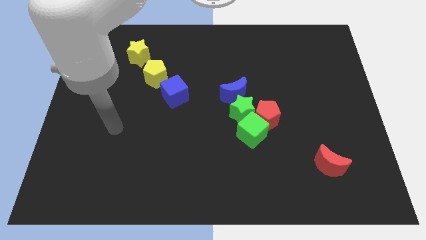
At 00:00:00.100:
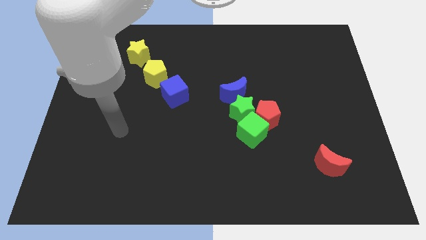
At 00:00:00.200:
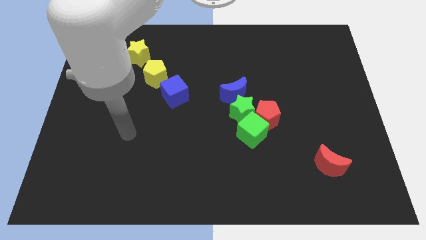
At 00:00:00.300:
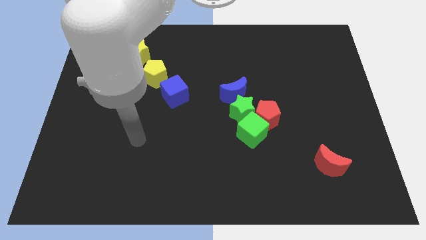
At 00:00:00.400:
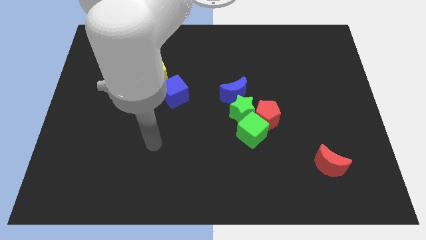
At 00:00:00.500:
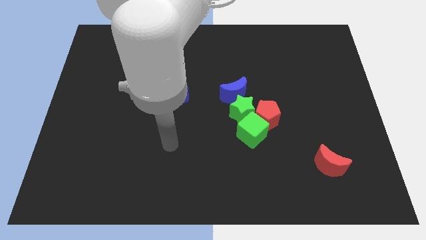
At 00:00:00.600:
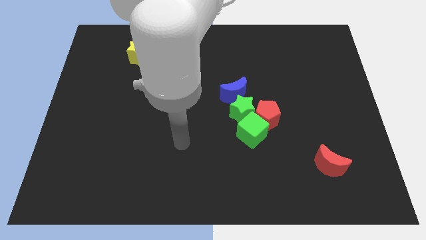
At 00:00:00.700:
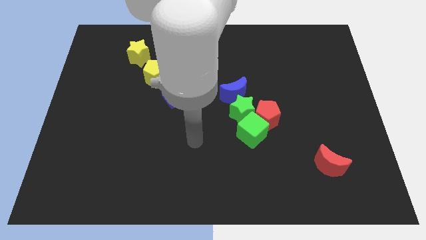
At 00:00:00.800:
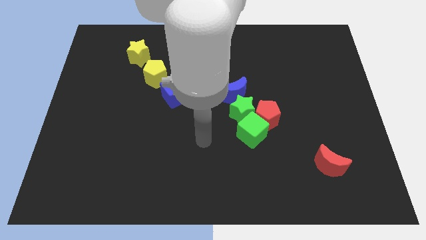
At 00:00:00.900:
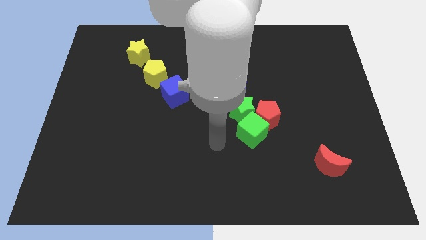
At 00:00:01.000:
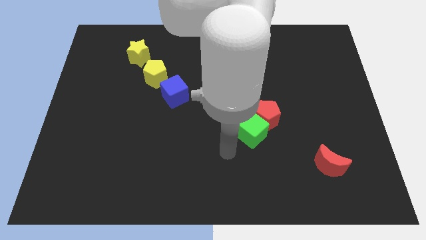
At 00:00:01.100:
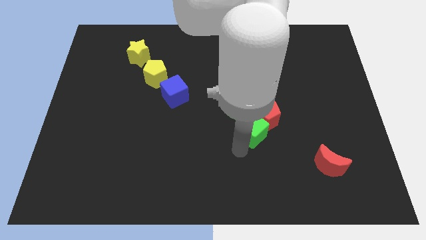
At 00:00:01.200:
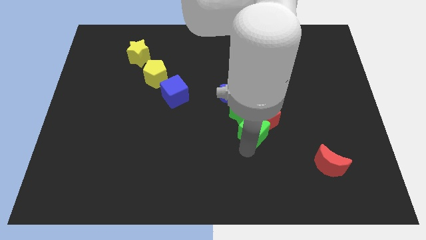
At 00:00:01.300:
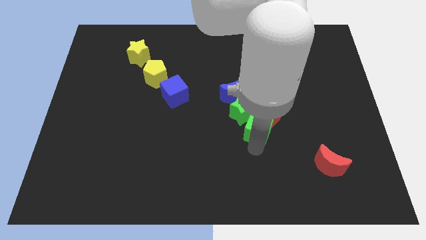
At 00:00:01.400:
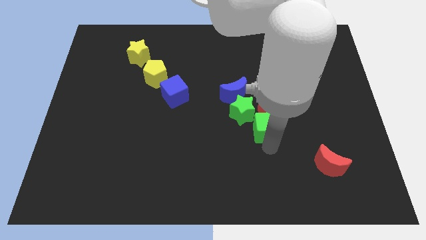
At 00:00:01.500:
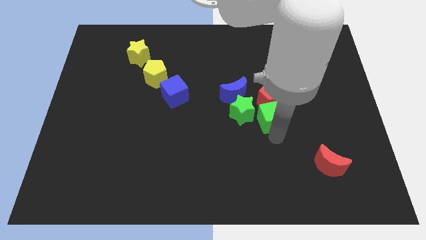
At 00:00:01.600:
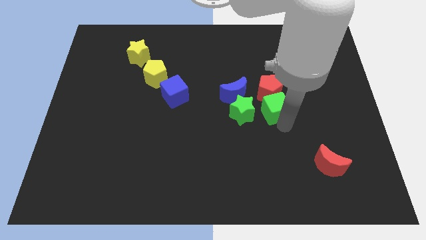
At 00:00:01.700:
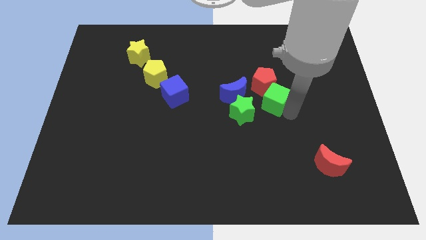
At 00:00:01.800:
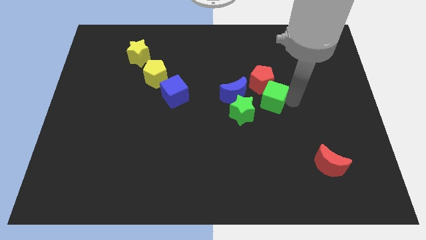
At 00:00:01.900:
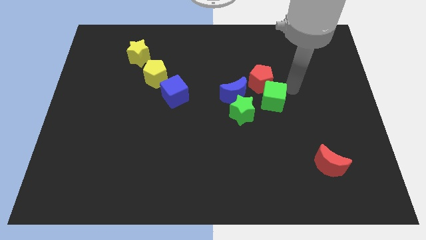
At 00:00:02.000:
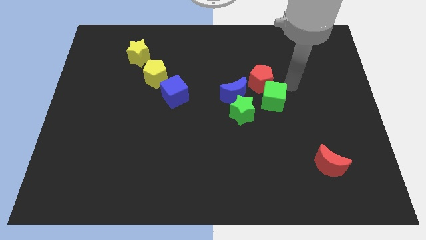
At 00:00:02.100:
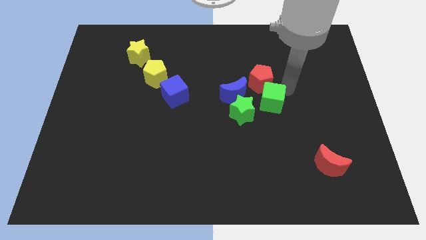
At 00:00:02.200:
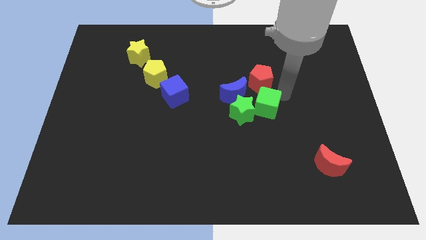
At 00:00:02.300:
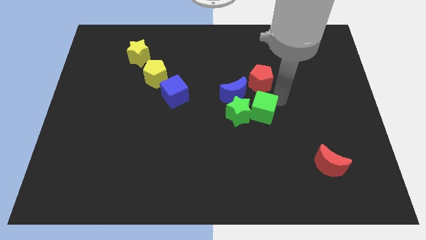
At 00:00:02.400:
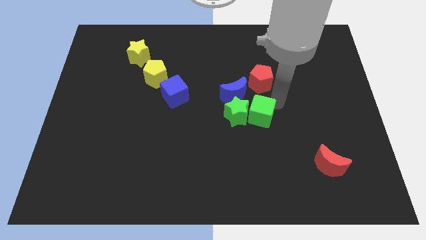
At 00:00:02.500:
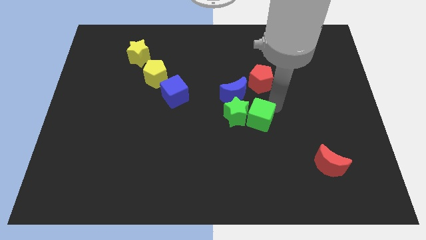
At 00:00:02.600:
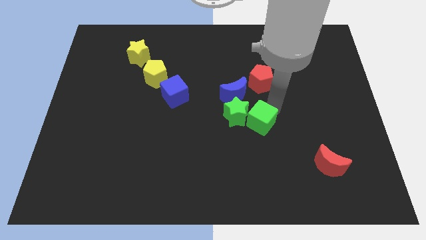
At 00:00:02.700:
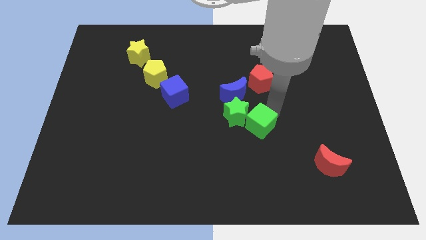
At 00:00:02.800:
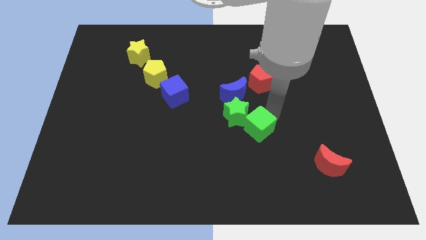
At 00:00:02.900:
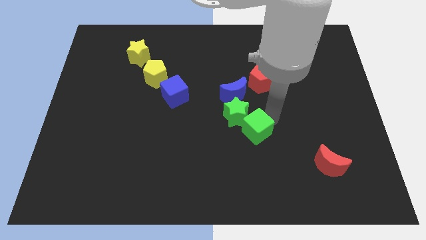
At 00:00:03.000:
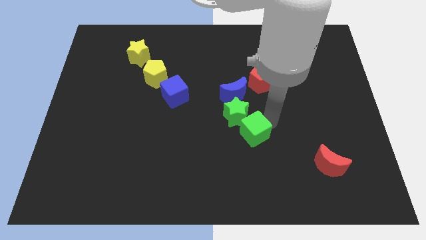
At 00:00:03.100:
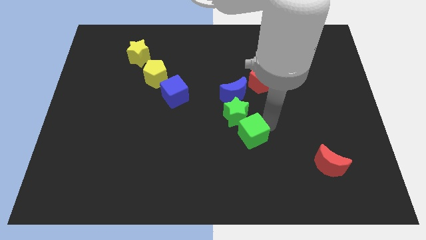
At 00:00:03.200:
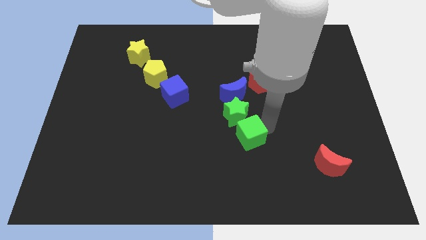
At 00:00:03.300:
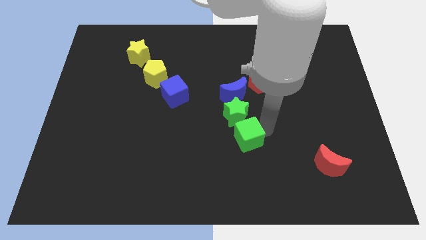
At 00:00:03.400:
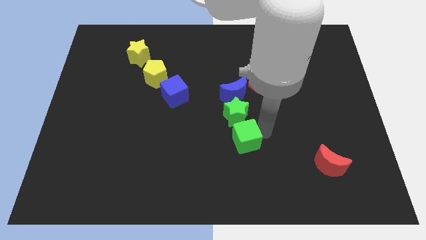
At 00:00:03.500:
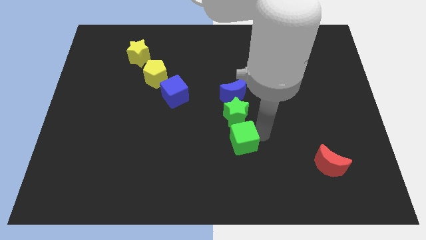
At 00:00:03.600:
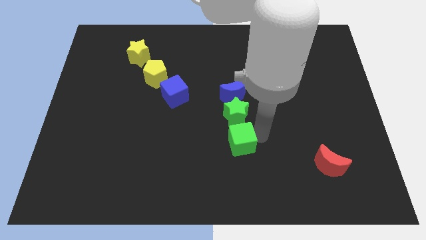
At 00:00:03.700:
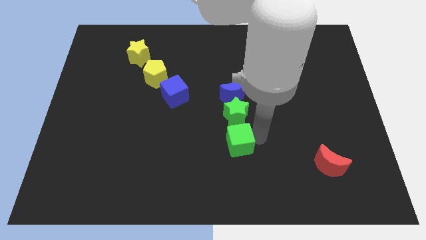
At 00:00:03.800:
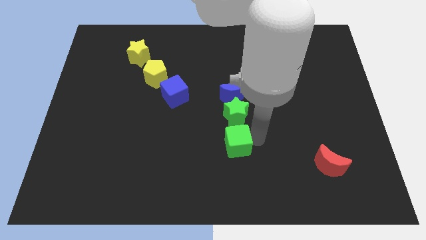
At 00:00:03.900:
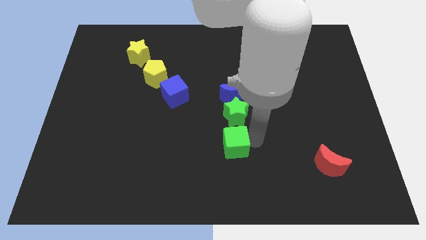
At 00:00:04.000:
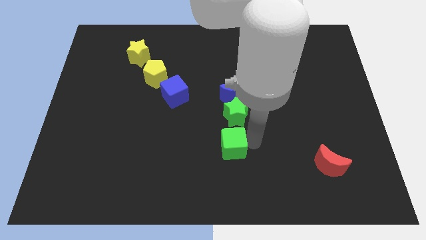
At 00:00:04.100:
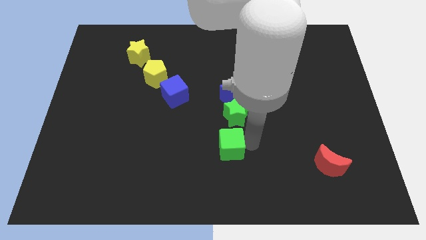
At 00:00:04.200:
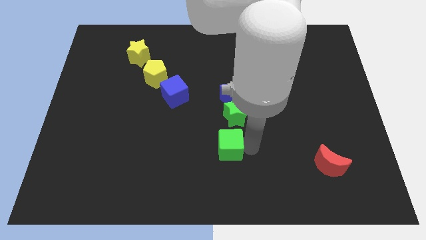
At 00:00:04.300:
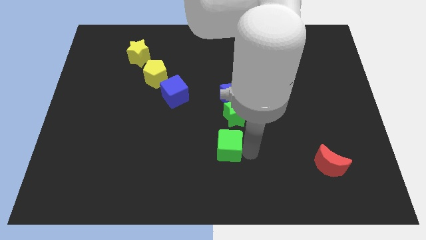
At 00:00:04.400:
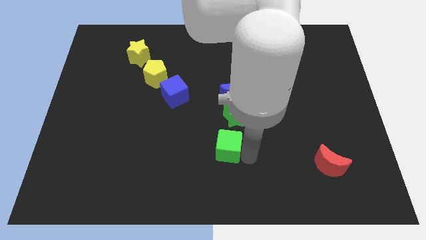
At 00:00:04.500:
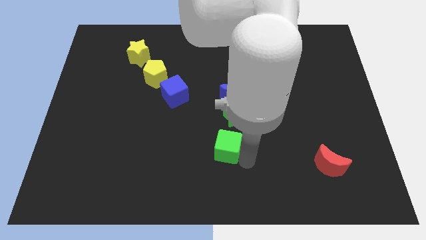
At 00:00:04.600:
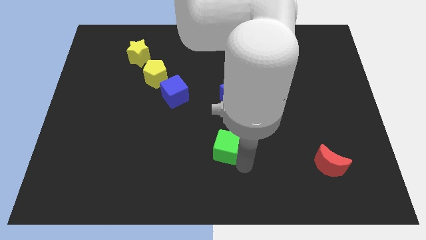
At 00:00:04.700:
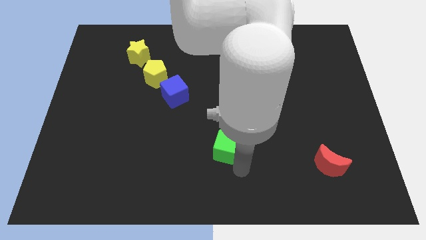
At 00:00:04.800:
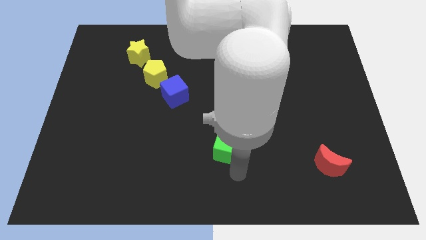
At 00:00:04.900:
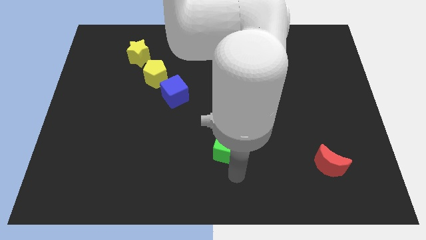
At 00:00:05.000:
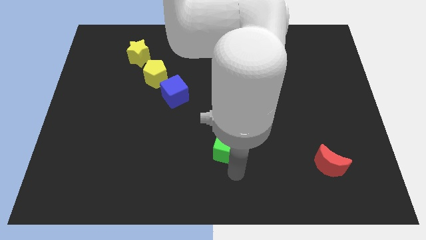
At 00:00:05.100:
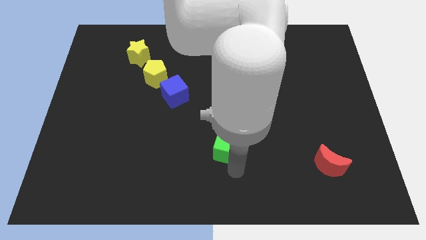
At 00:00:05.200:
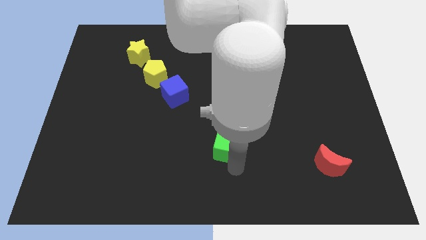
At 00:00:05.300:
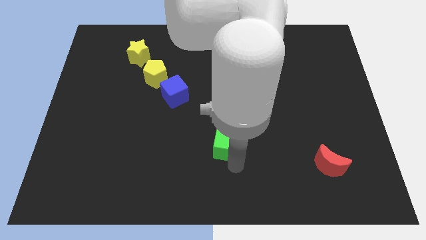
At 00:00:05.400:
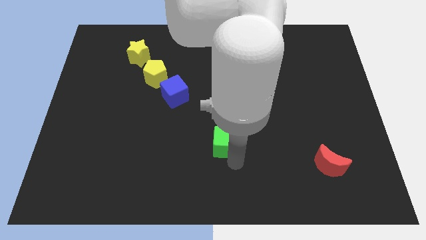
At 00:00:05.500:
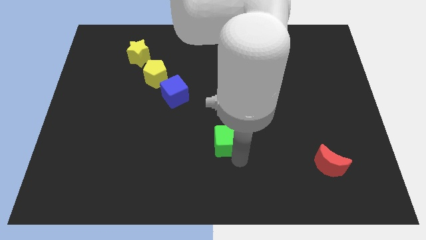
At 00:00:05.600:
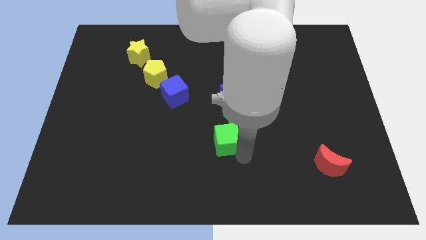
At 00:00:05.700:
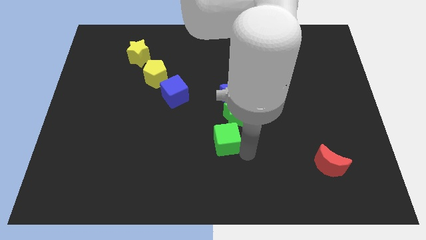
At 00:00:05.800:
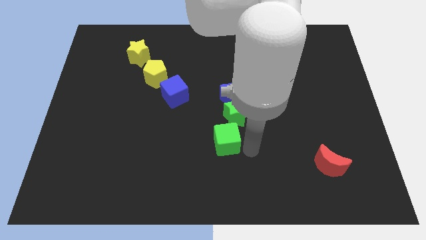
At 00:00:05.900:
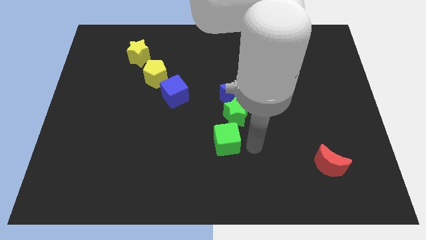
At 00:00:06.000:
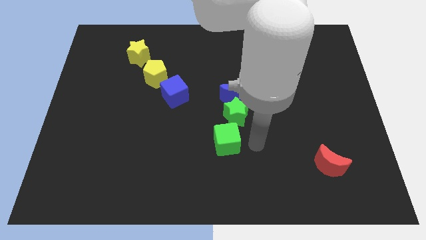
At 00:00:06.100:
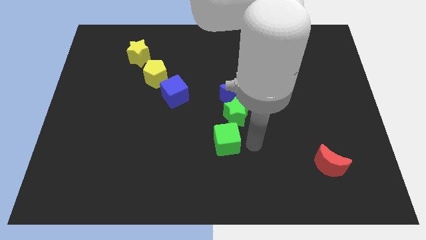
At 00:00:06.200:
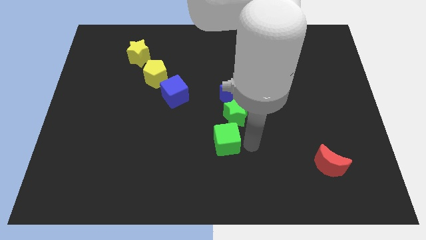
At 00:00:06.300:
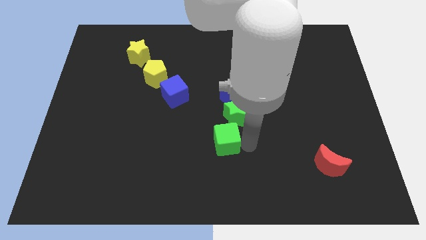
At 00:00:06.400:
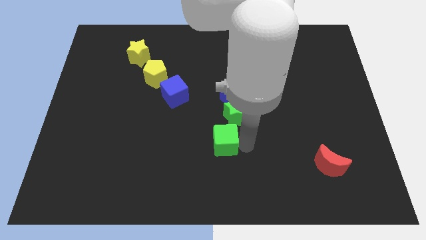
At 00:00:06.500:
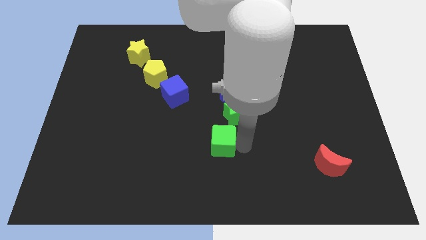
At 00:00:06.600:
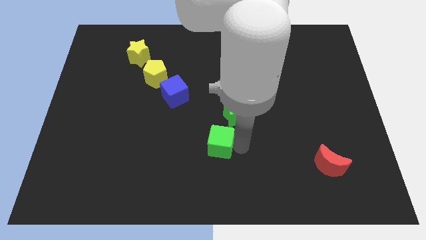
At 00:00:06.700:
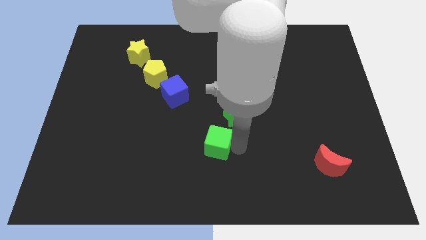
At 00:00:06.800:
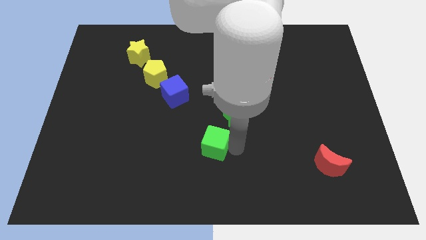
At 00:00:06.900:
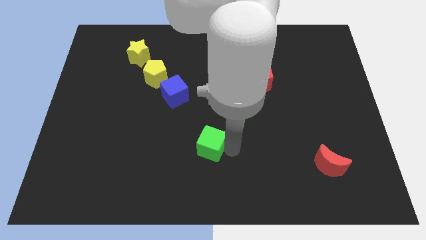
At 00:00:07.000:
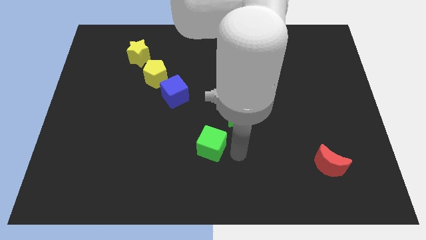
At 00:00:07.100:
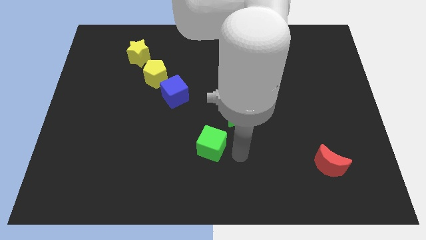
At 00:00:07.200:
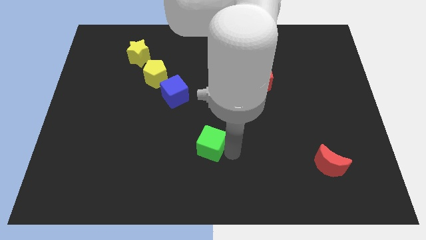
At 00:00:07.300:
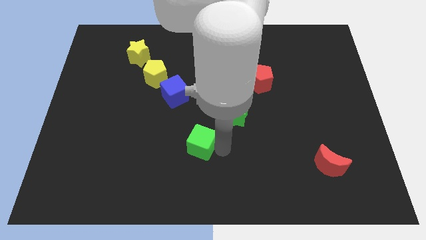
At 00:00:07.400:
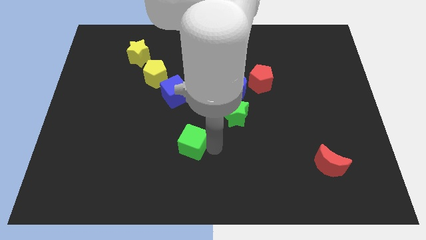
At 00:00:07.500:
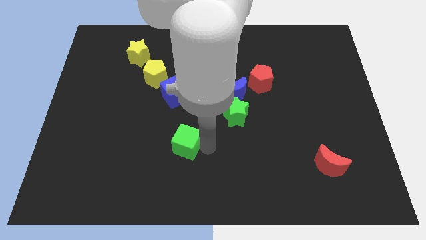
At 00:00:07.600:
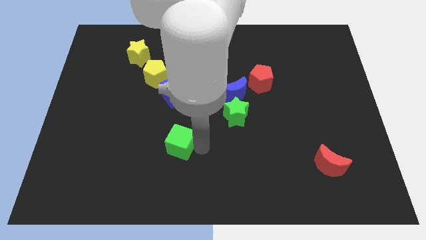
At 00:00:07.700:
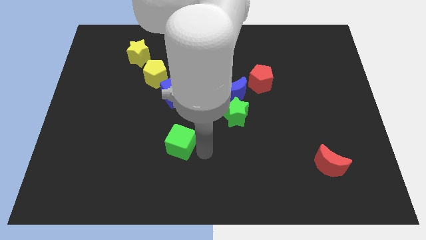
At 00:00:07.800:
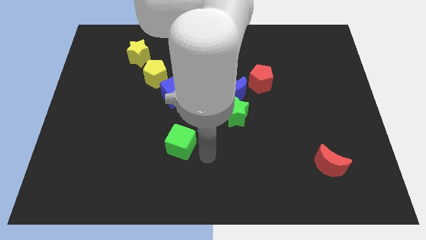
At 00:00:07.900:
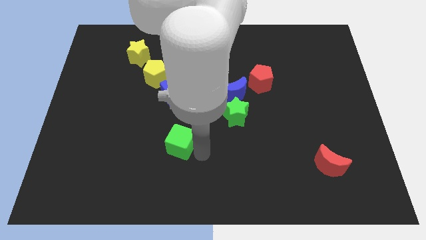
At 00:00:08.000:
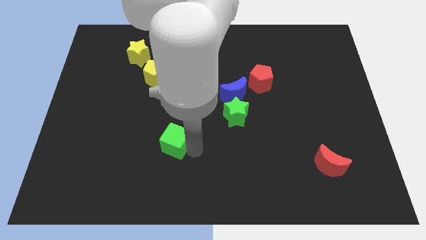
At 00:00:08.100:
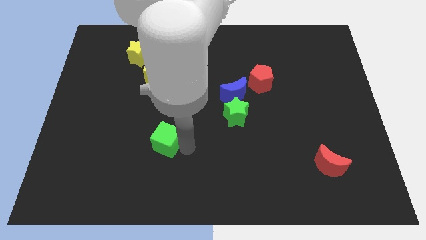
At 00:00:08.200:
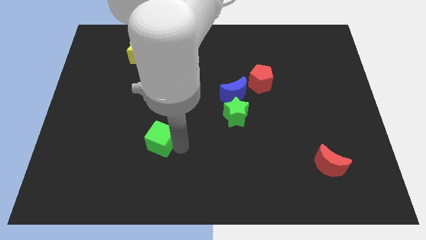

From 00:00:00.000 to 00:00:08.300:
move the green cube left
